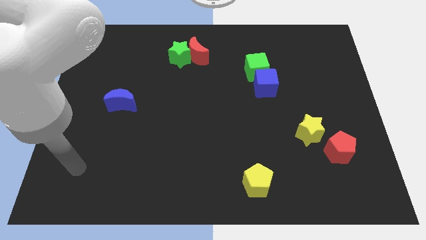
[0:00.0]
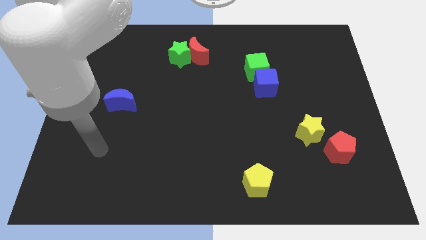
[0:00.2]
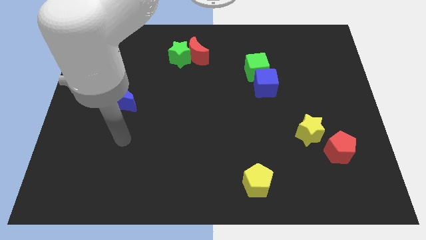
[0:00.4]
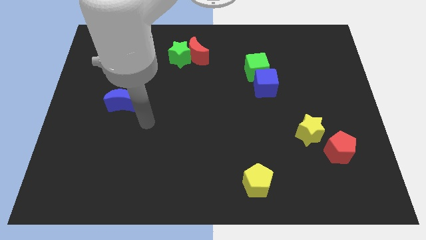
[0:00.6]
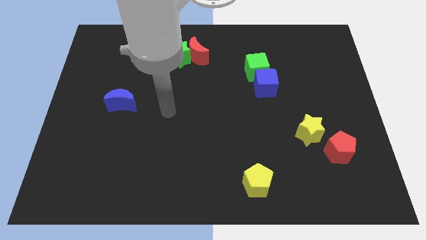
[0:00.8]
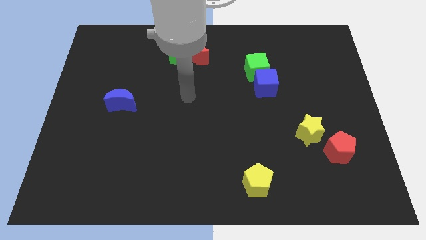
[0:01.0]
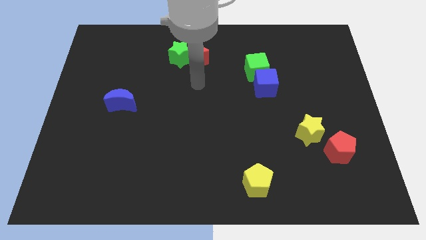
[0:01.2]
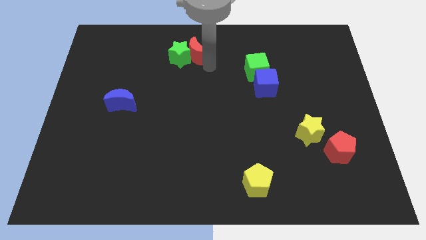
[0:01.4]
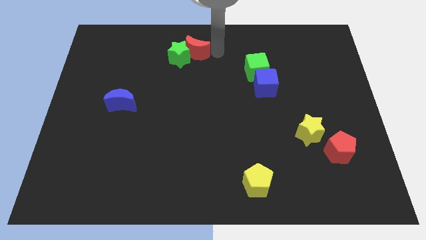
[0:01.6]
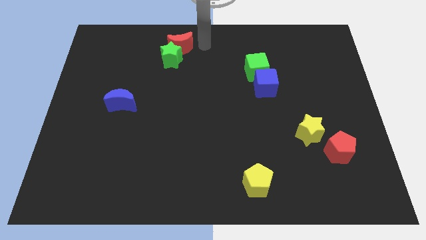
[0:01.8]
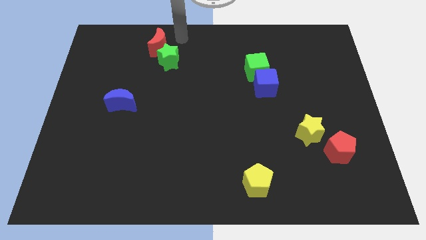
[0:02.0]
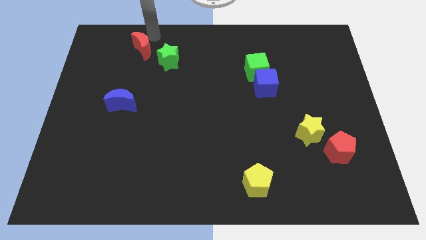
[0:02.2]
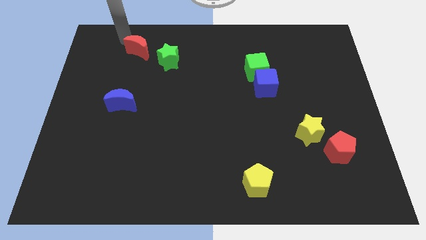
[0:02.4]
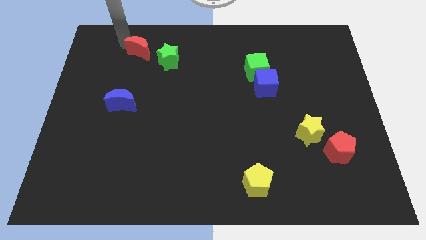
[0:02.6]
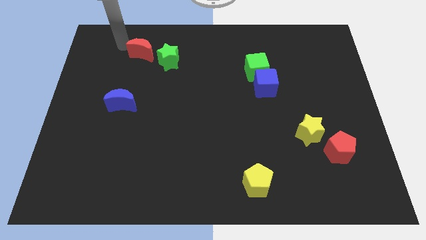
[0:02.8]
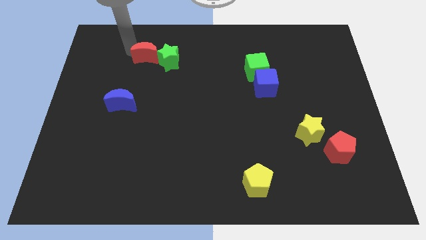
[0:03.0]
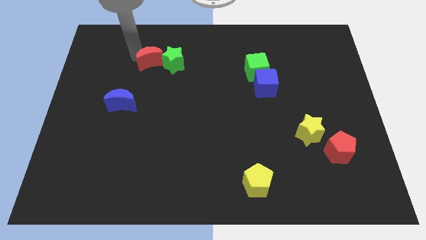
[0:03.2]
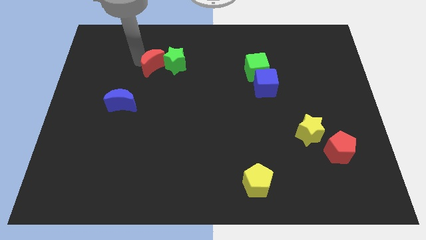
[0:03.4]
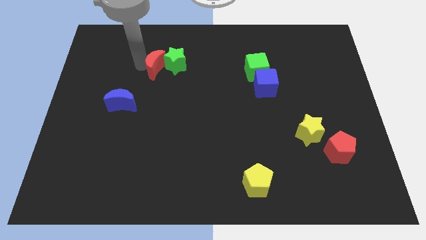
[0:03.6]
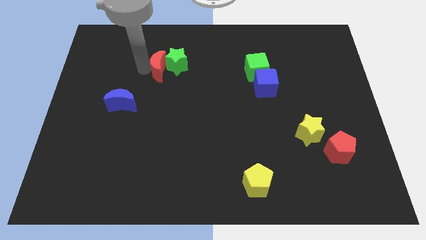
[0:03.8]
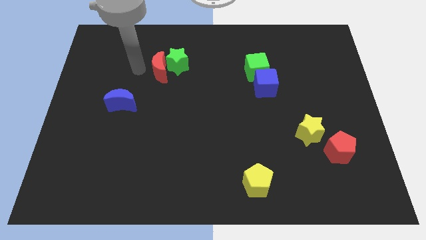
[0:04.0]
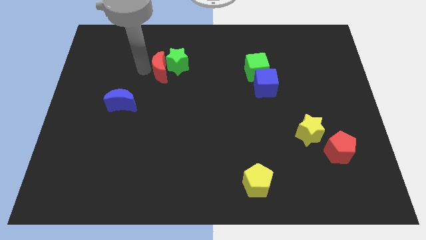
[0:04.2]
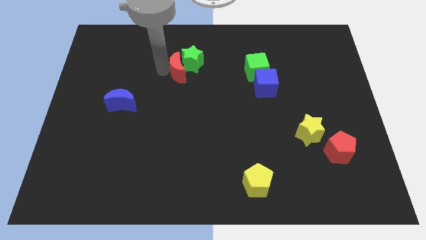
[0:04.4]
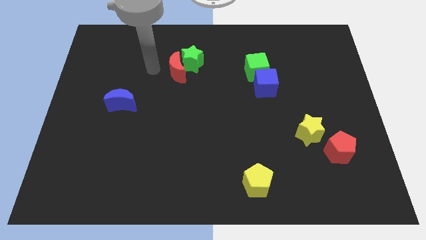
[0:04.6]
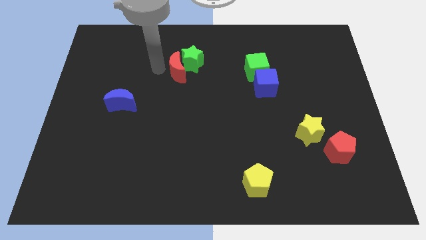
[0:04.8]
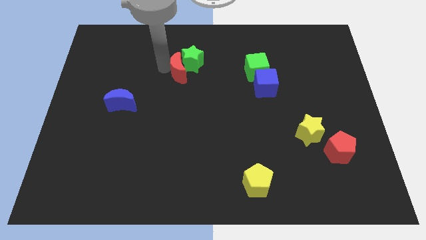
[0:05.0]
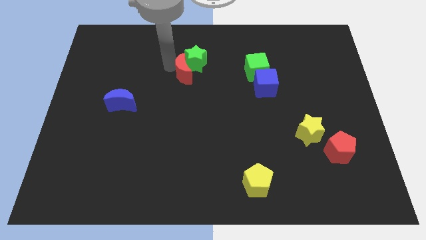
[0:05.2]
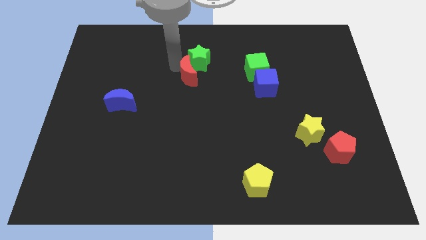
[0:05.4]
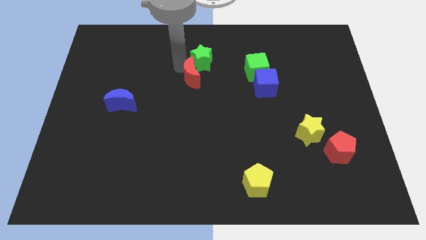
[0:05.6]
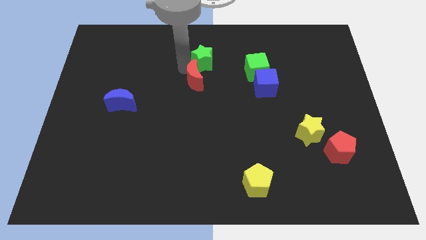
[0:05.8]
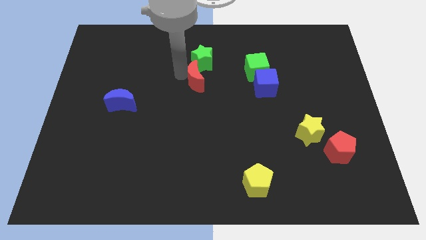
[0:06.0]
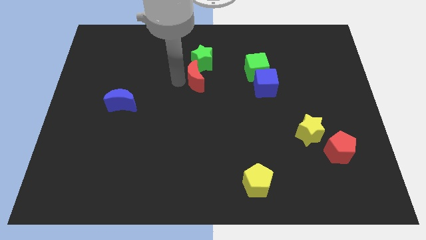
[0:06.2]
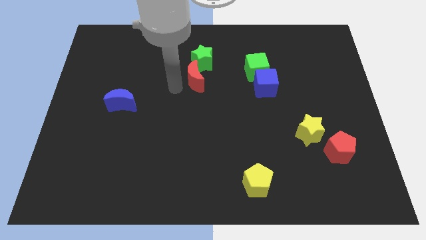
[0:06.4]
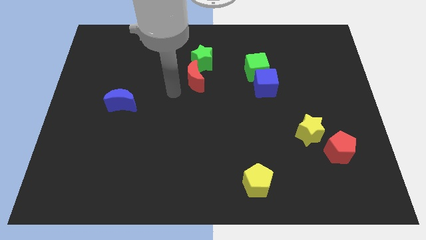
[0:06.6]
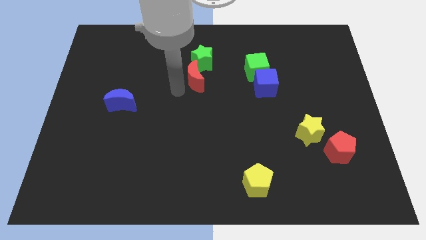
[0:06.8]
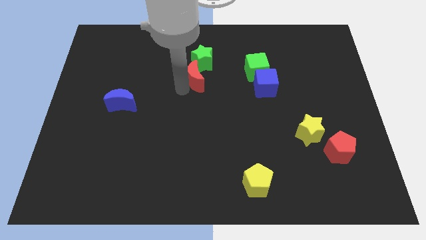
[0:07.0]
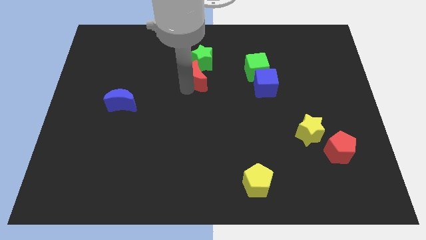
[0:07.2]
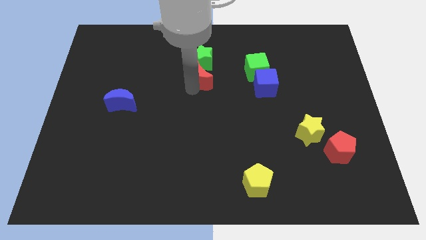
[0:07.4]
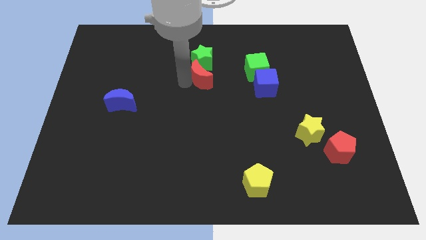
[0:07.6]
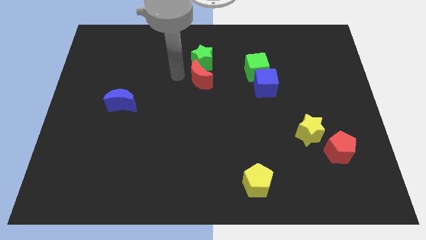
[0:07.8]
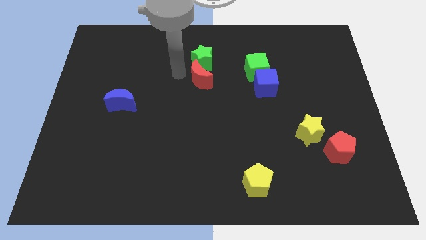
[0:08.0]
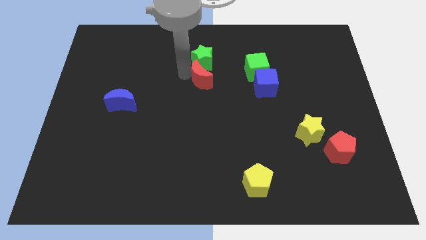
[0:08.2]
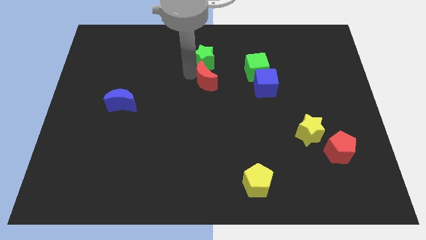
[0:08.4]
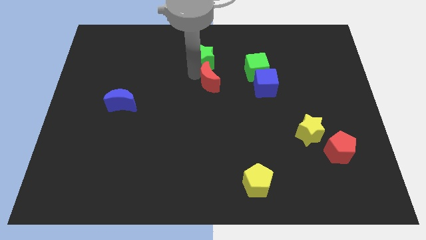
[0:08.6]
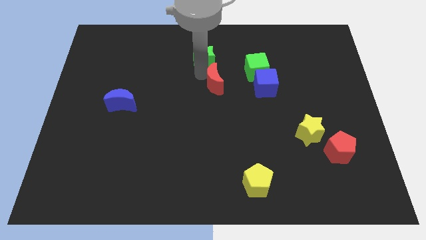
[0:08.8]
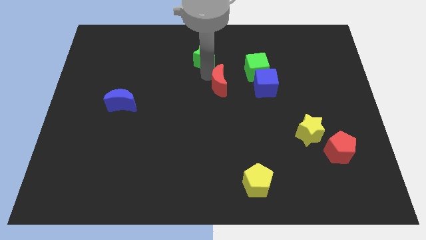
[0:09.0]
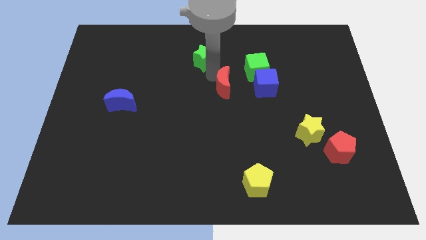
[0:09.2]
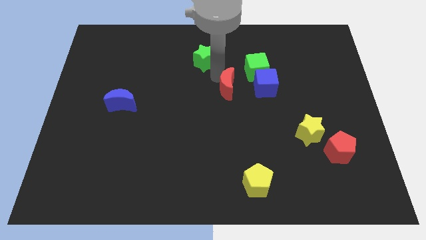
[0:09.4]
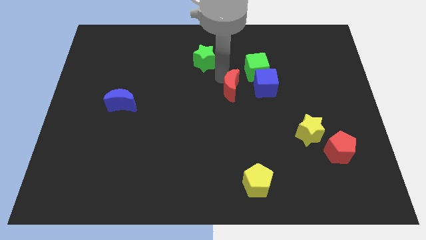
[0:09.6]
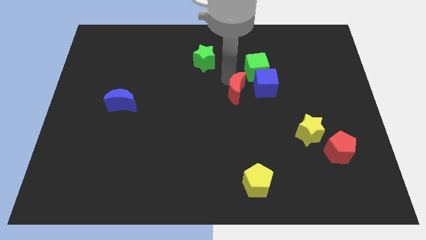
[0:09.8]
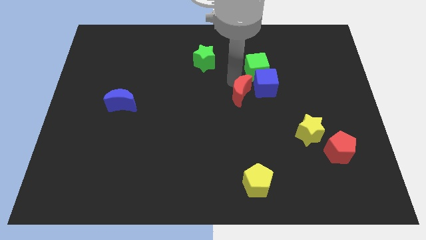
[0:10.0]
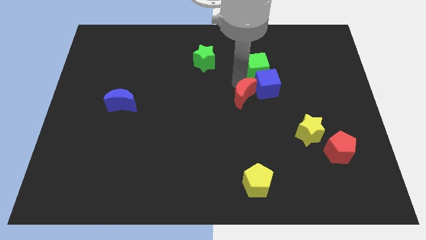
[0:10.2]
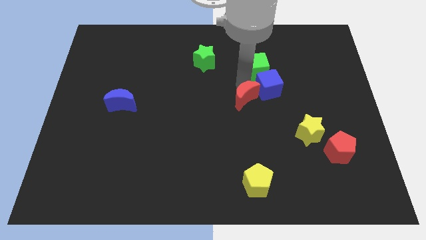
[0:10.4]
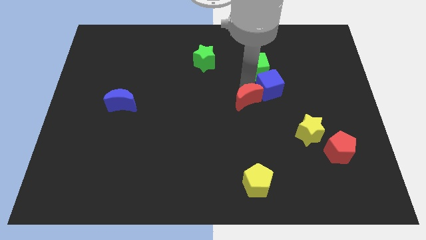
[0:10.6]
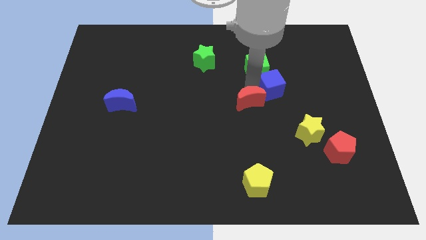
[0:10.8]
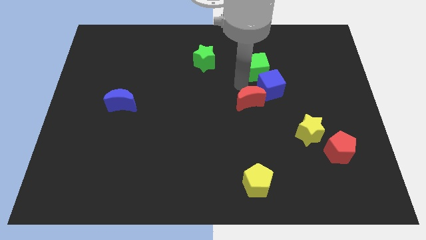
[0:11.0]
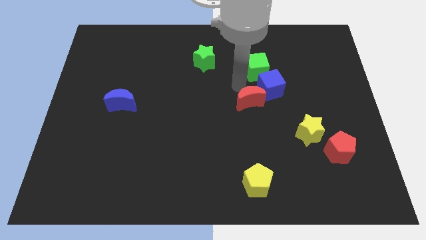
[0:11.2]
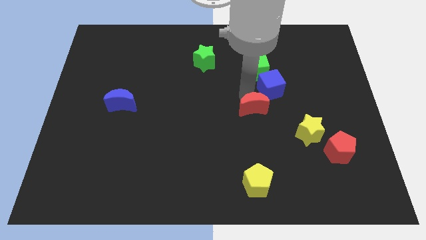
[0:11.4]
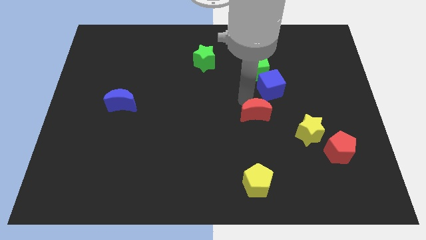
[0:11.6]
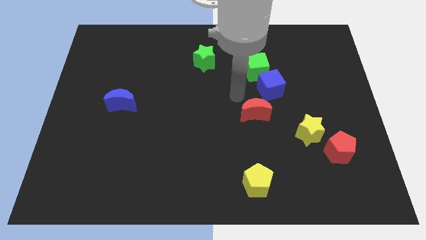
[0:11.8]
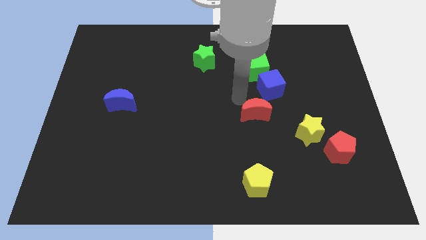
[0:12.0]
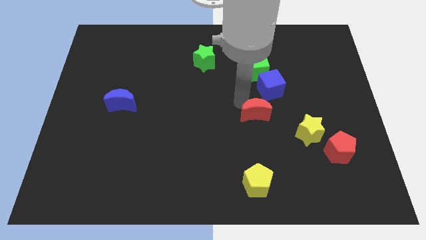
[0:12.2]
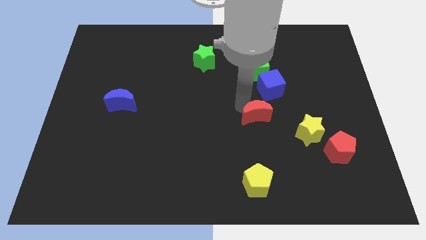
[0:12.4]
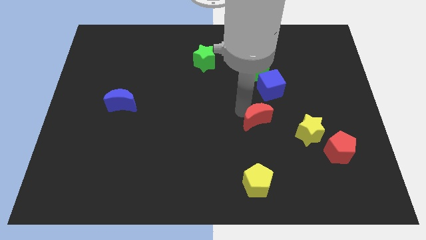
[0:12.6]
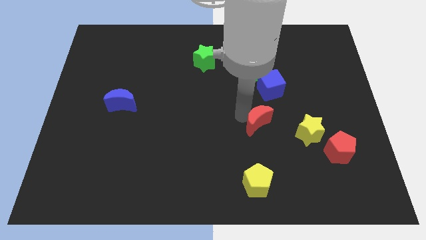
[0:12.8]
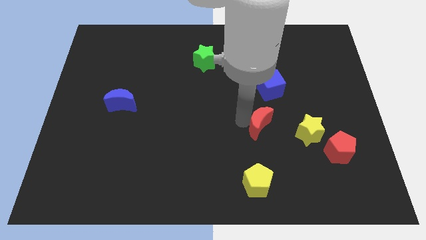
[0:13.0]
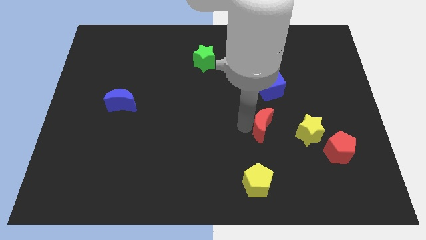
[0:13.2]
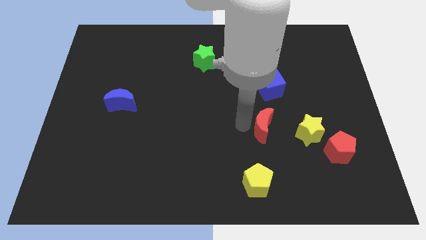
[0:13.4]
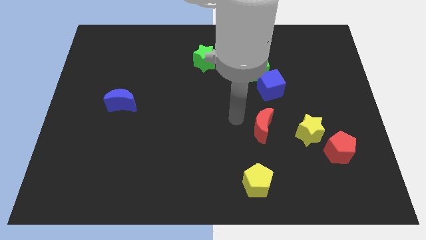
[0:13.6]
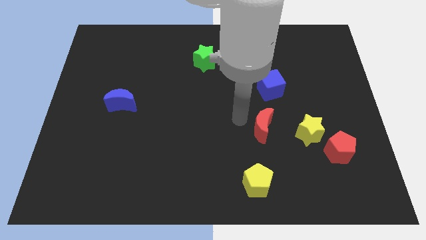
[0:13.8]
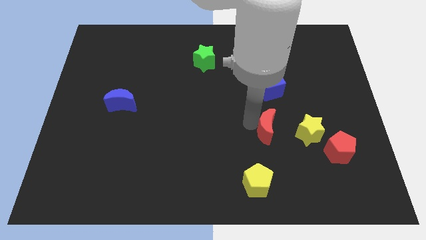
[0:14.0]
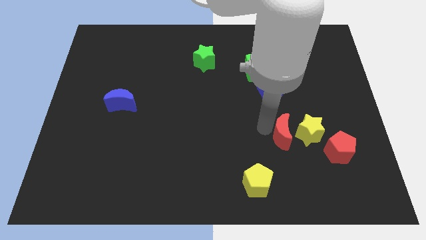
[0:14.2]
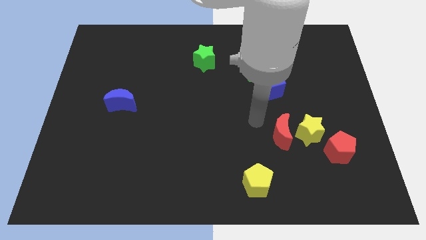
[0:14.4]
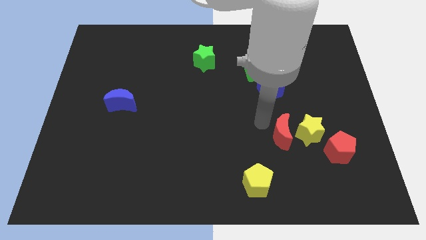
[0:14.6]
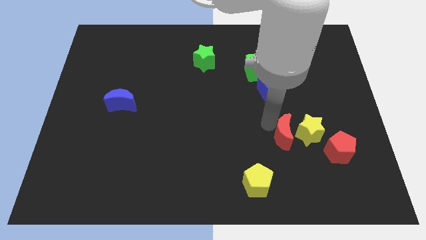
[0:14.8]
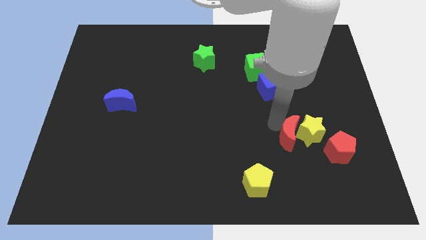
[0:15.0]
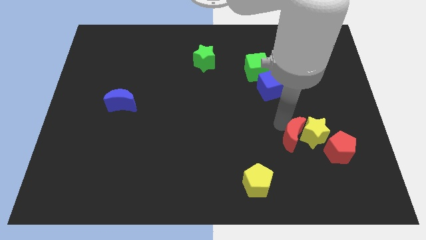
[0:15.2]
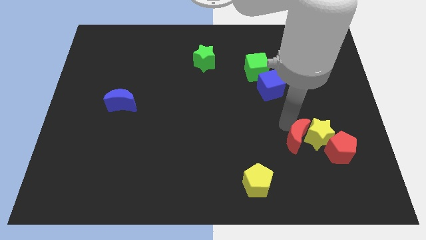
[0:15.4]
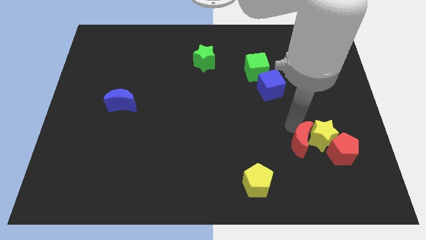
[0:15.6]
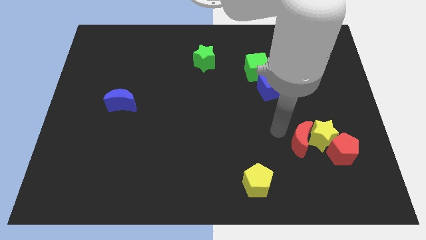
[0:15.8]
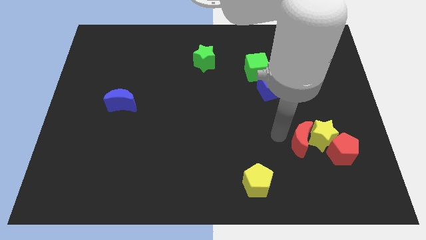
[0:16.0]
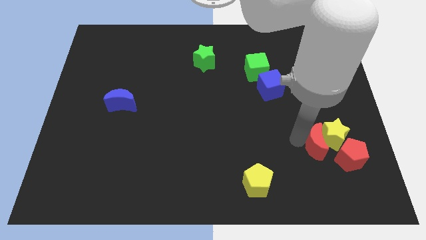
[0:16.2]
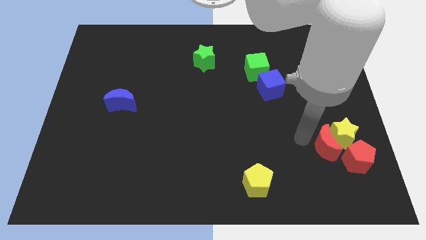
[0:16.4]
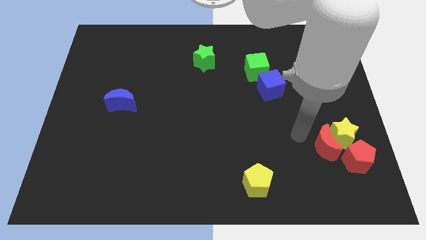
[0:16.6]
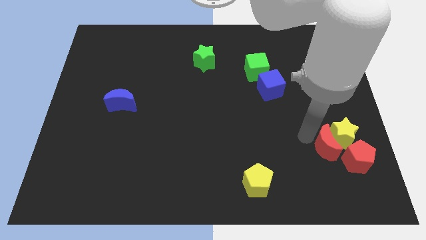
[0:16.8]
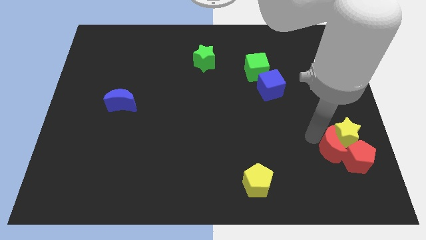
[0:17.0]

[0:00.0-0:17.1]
move the red moon close to the red pentagon
